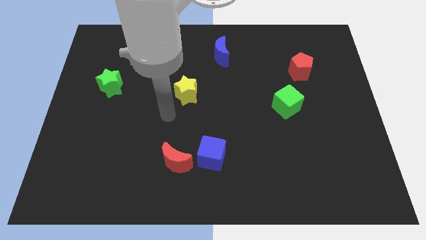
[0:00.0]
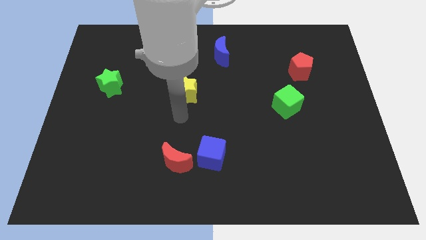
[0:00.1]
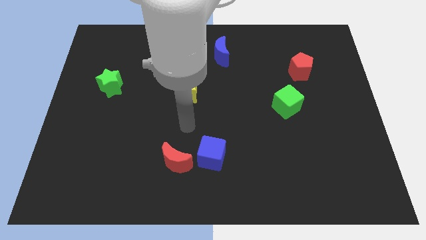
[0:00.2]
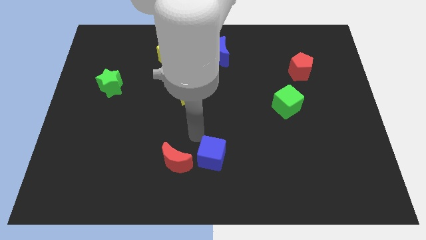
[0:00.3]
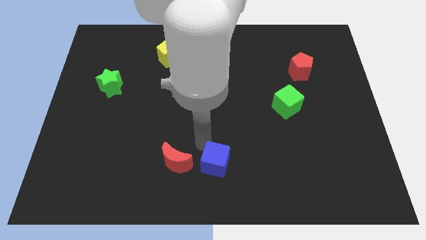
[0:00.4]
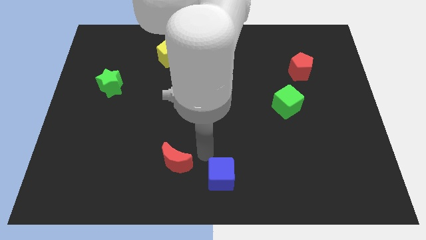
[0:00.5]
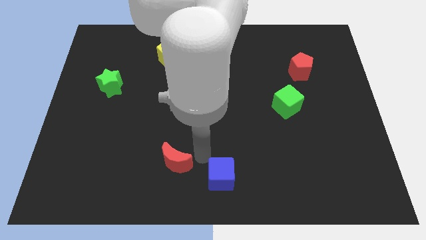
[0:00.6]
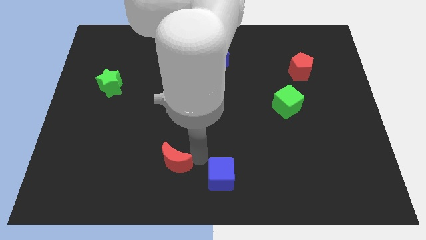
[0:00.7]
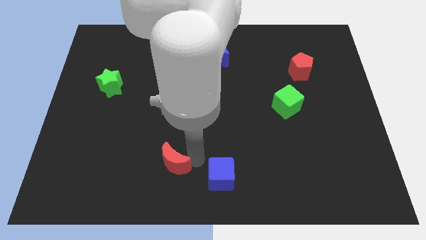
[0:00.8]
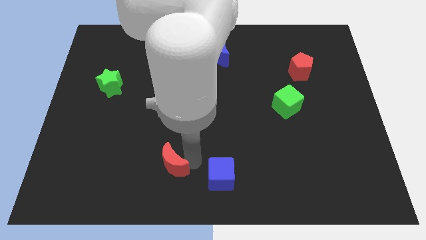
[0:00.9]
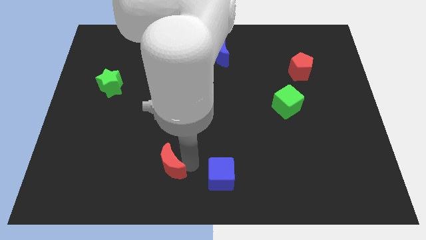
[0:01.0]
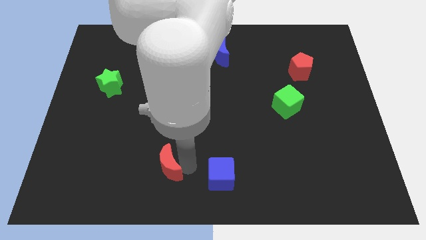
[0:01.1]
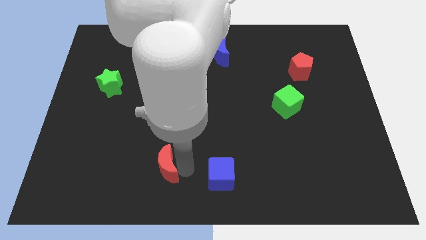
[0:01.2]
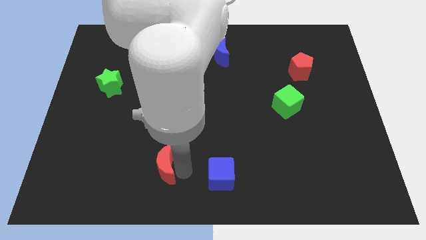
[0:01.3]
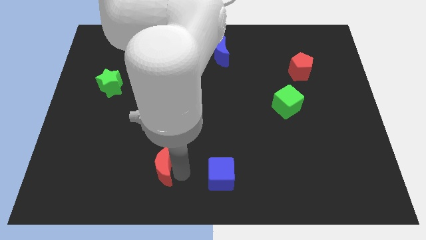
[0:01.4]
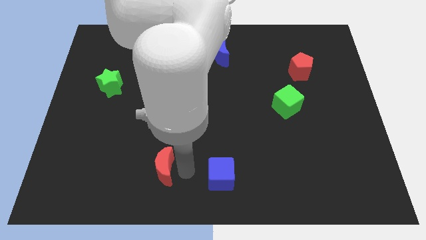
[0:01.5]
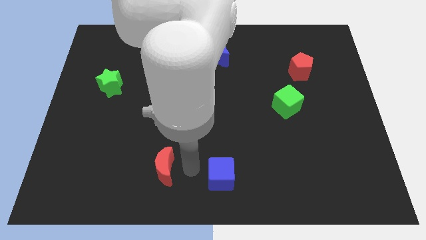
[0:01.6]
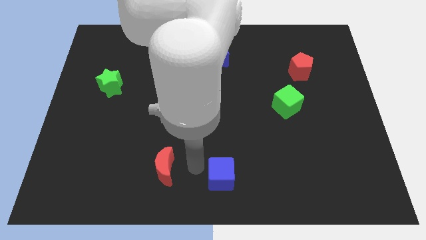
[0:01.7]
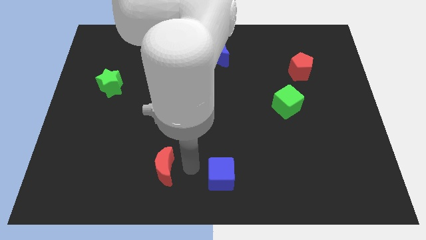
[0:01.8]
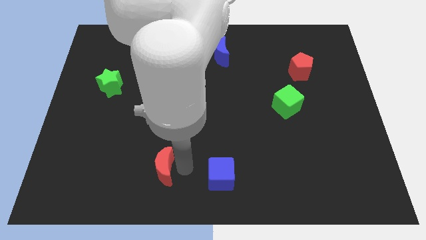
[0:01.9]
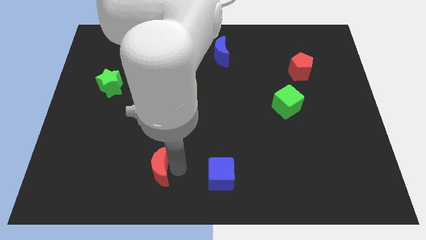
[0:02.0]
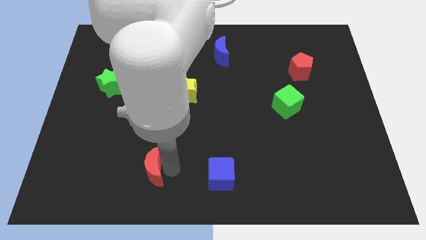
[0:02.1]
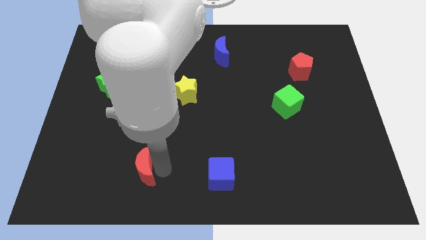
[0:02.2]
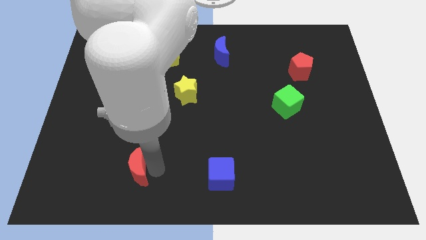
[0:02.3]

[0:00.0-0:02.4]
slide the red moon slightly to the left

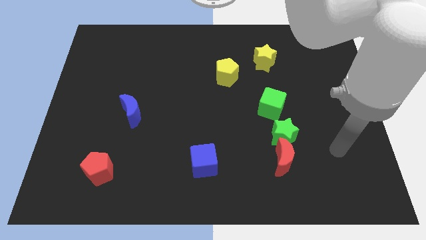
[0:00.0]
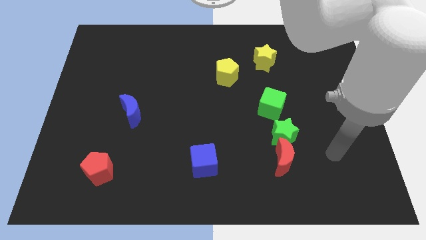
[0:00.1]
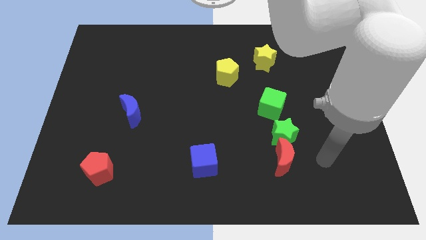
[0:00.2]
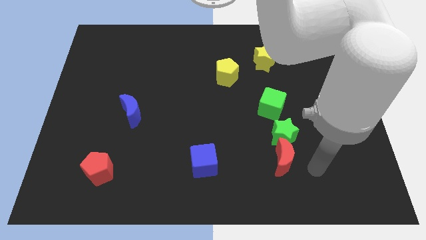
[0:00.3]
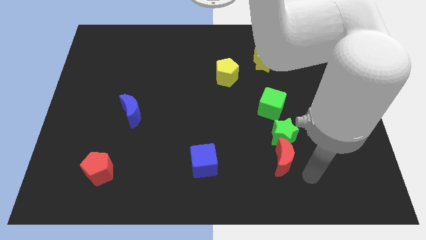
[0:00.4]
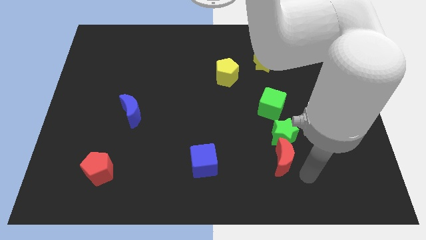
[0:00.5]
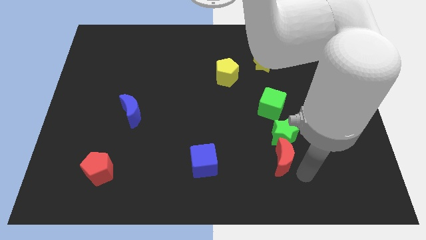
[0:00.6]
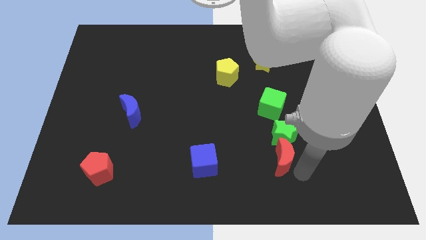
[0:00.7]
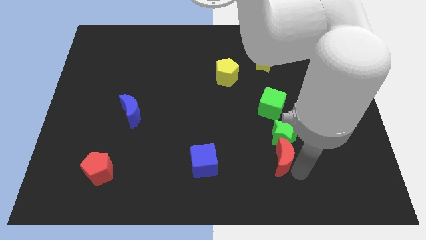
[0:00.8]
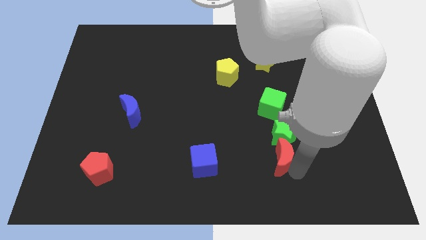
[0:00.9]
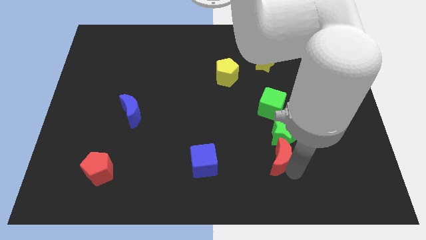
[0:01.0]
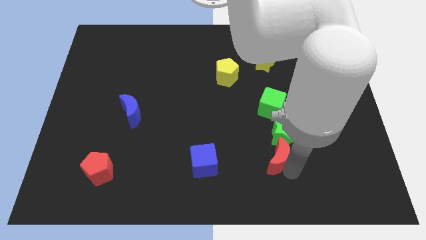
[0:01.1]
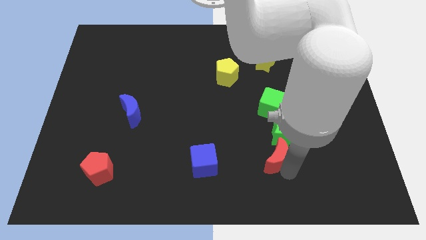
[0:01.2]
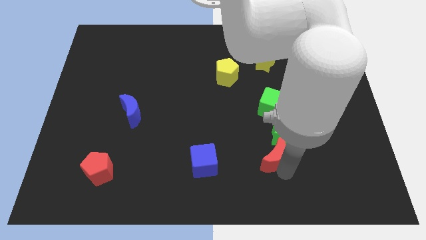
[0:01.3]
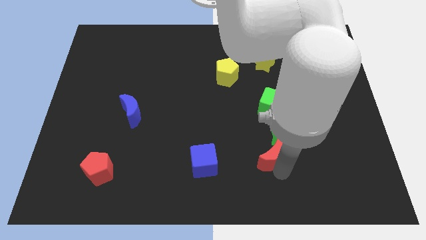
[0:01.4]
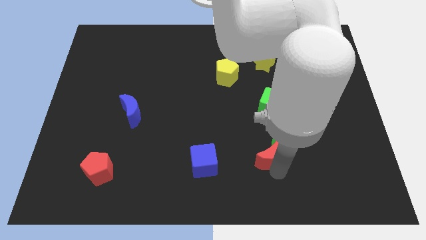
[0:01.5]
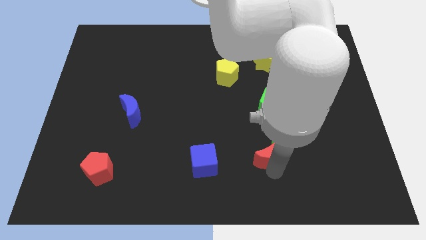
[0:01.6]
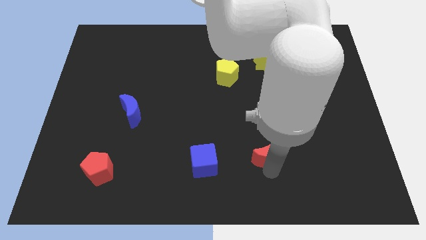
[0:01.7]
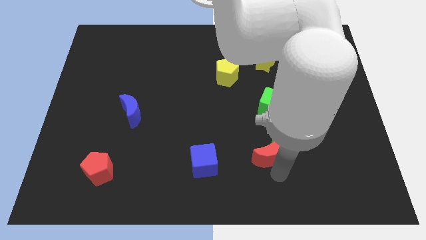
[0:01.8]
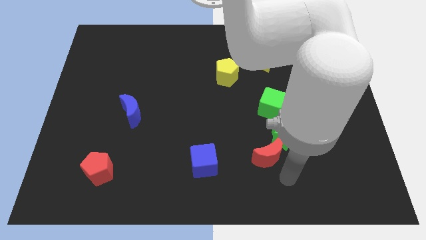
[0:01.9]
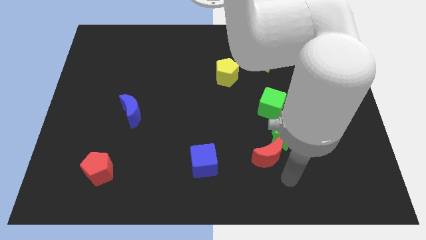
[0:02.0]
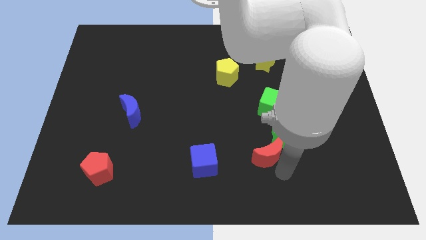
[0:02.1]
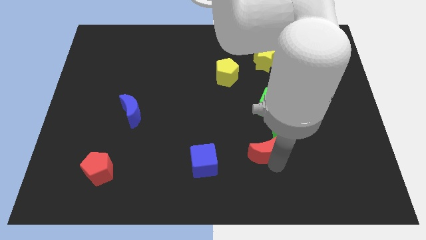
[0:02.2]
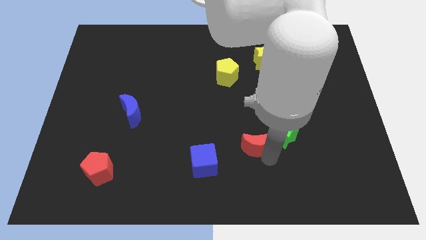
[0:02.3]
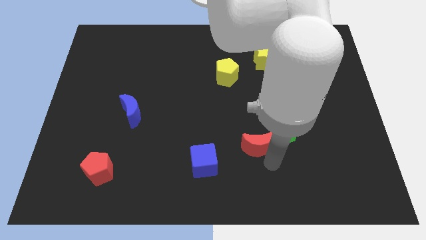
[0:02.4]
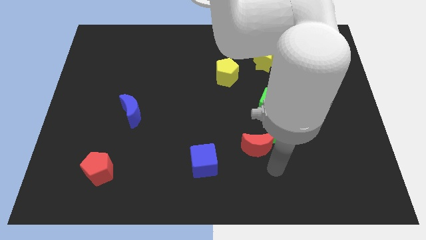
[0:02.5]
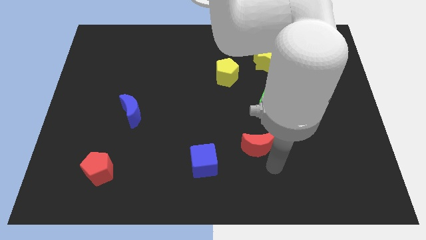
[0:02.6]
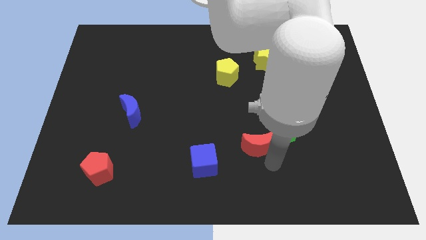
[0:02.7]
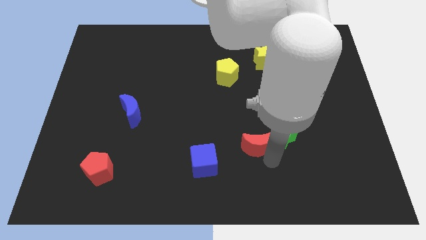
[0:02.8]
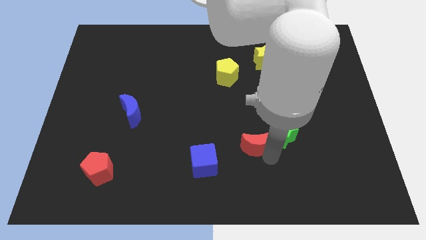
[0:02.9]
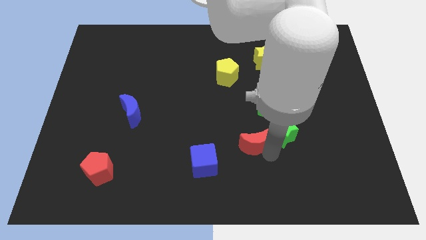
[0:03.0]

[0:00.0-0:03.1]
move the red moon a little diagonally upwards and left

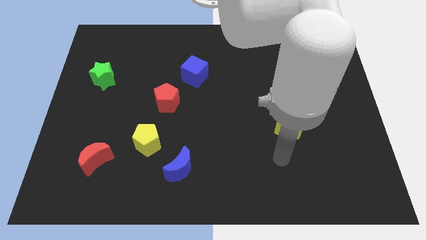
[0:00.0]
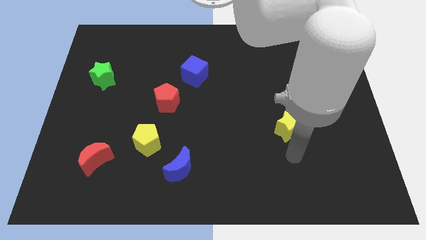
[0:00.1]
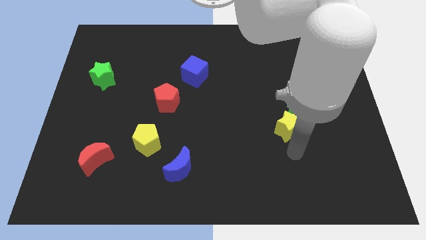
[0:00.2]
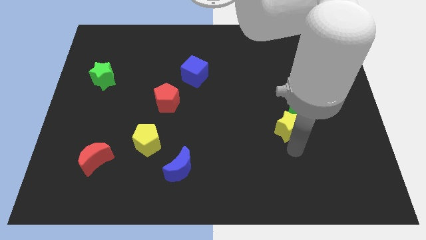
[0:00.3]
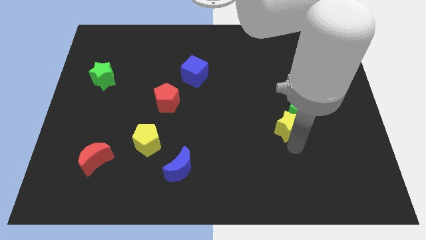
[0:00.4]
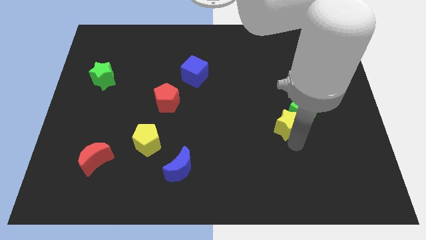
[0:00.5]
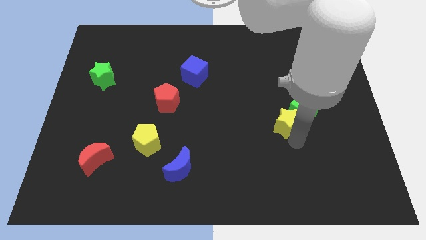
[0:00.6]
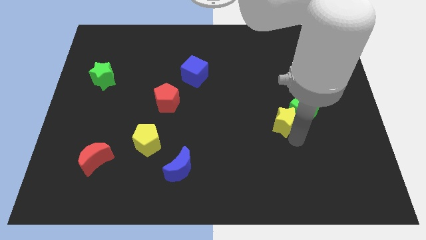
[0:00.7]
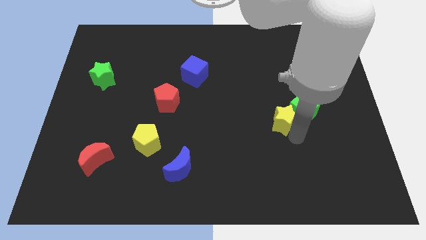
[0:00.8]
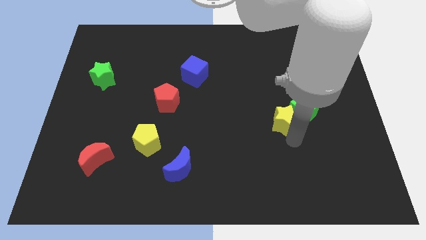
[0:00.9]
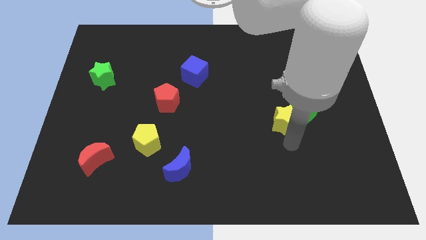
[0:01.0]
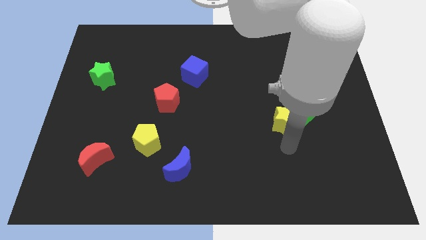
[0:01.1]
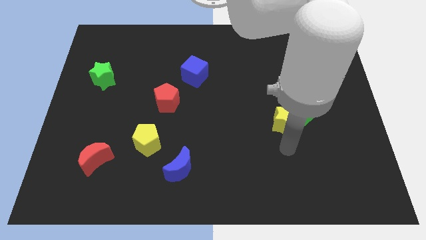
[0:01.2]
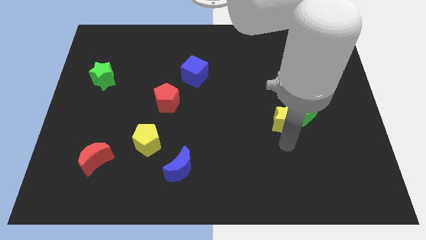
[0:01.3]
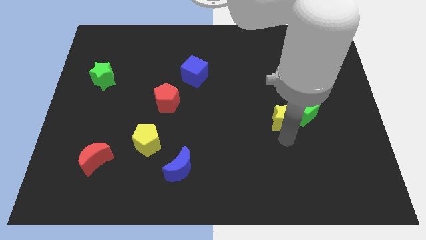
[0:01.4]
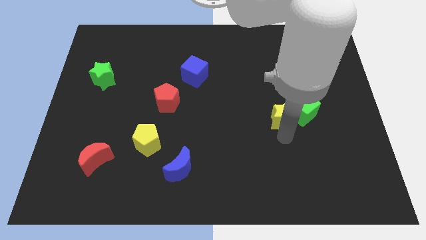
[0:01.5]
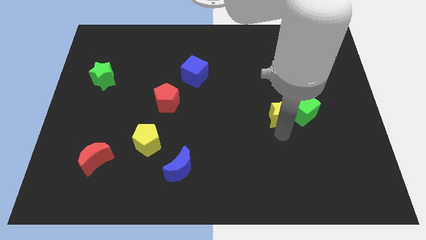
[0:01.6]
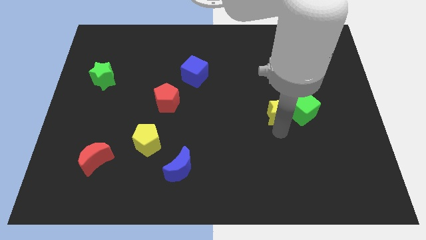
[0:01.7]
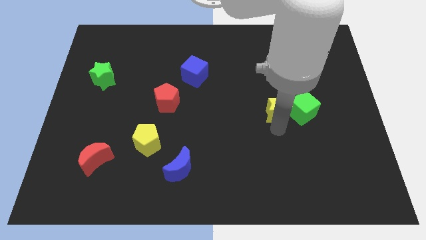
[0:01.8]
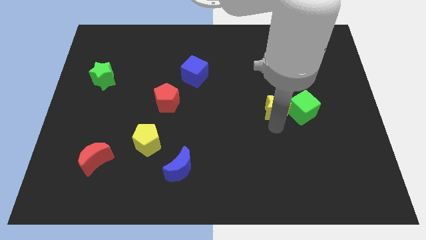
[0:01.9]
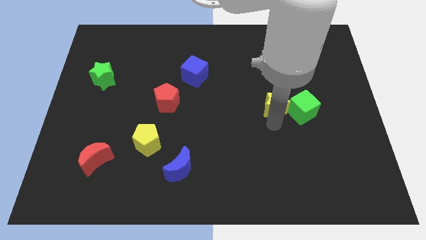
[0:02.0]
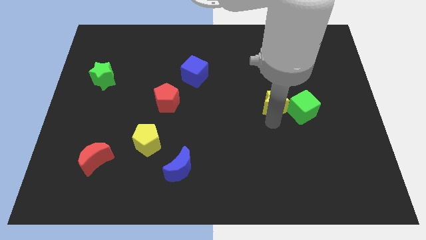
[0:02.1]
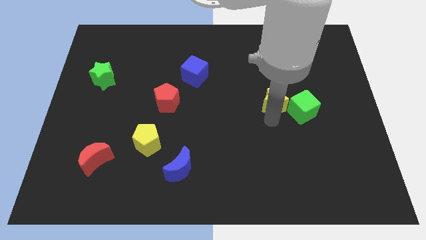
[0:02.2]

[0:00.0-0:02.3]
slightly push the yellow star up

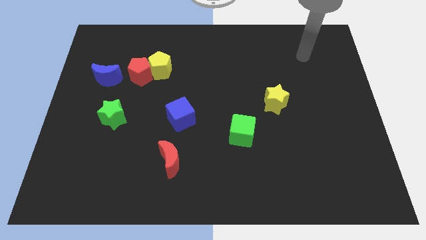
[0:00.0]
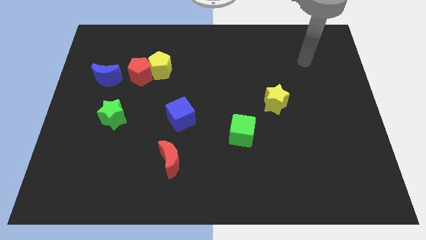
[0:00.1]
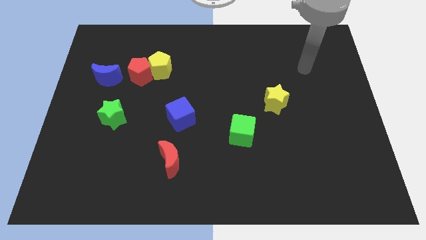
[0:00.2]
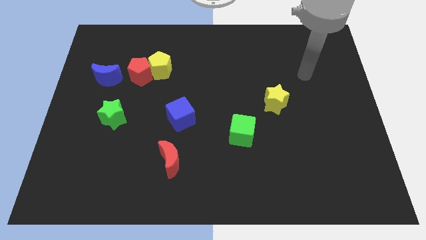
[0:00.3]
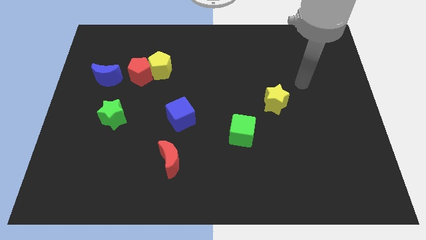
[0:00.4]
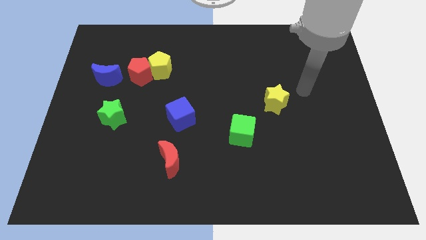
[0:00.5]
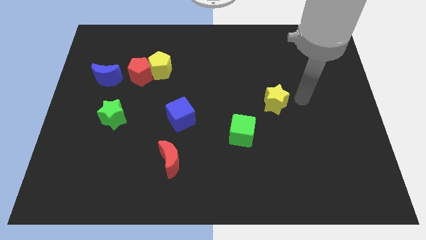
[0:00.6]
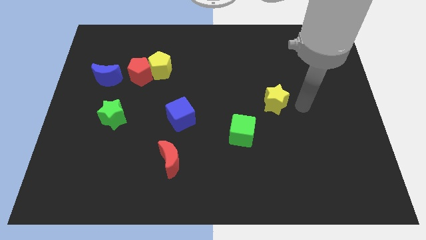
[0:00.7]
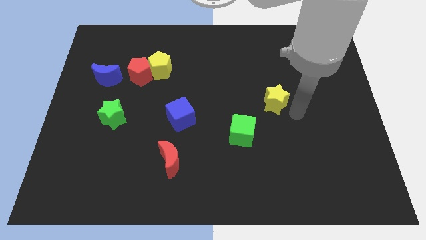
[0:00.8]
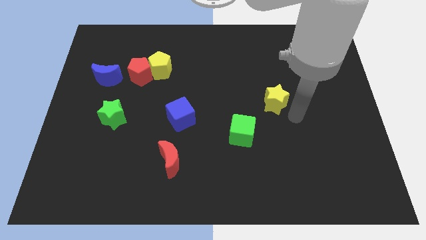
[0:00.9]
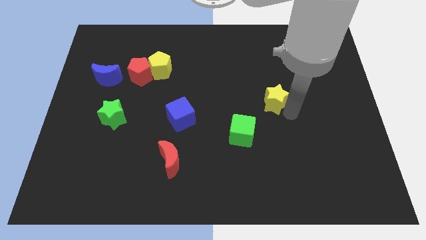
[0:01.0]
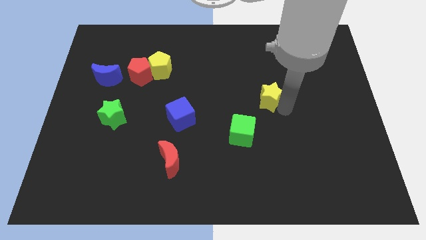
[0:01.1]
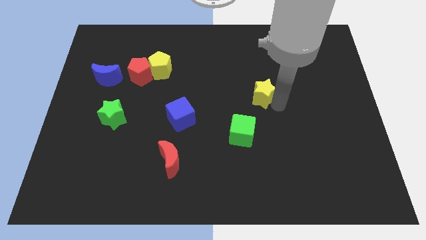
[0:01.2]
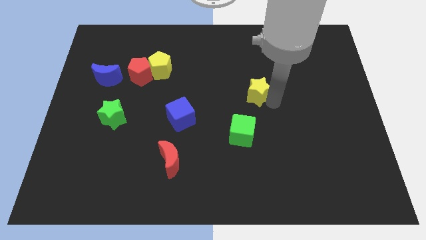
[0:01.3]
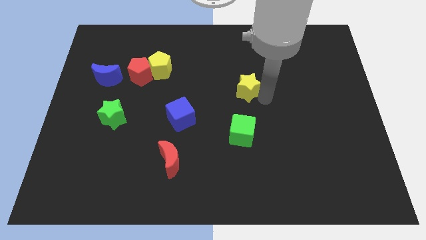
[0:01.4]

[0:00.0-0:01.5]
move the yellow star slightly upwards and to the left diagonally
